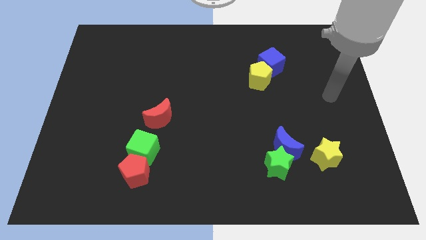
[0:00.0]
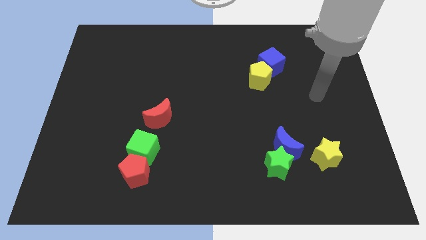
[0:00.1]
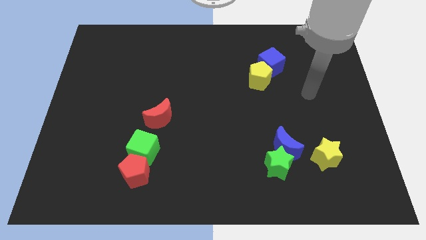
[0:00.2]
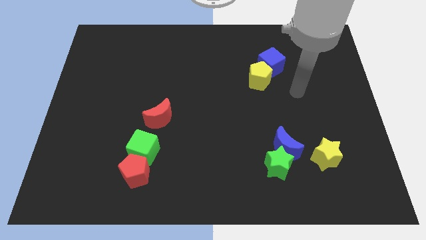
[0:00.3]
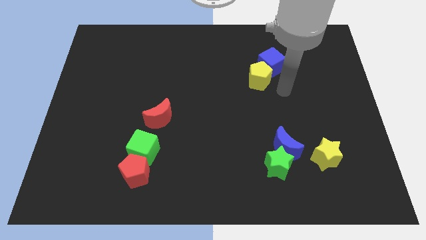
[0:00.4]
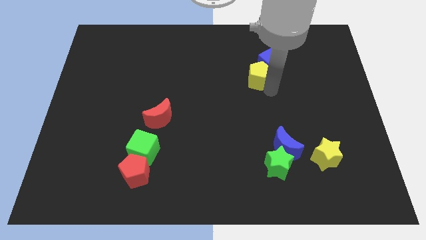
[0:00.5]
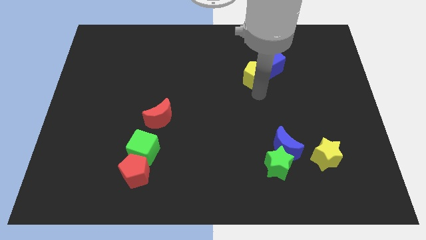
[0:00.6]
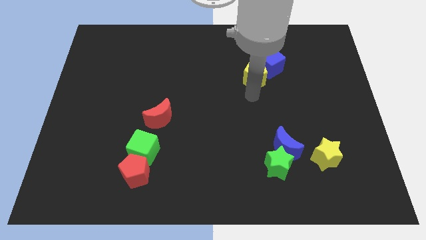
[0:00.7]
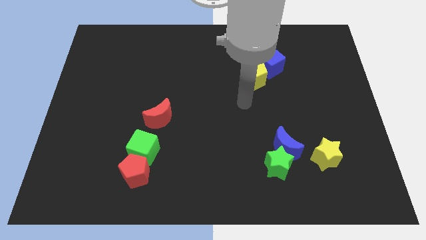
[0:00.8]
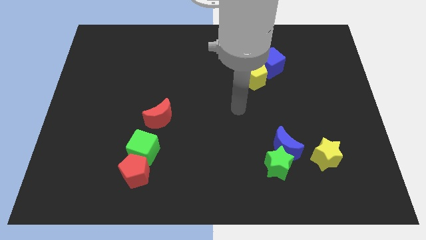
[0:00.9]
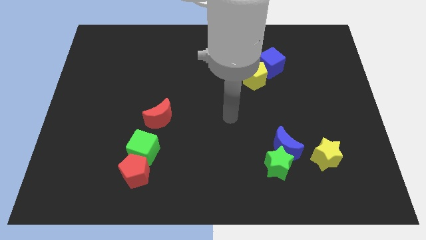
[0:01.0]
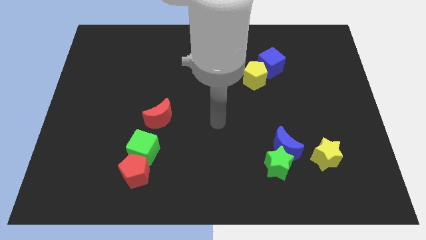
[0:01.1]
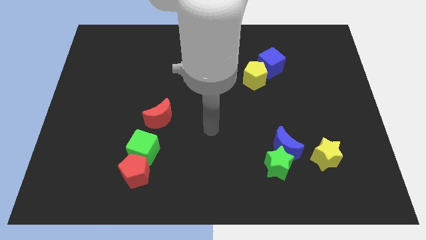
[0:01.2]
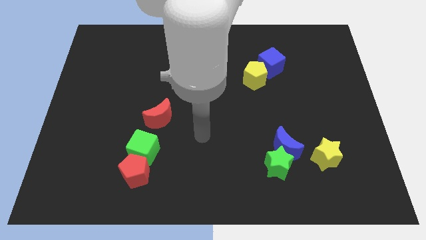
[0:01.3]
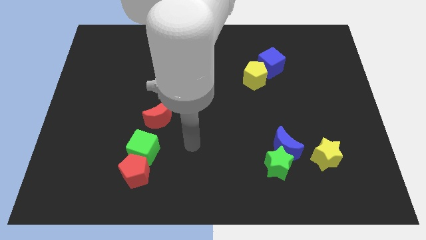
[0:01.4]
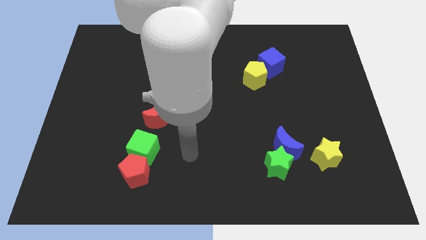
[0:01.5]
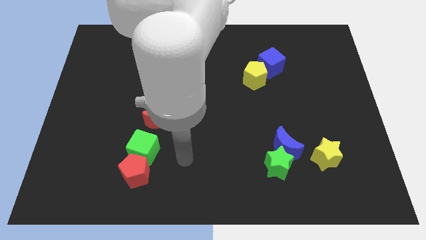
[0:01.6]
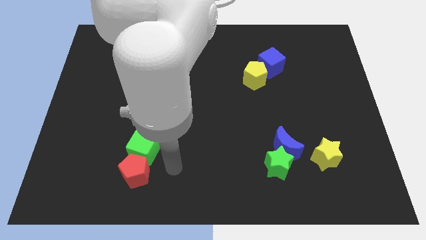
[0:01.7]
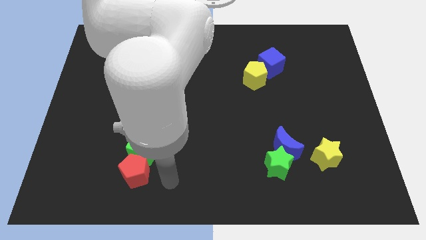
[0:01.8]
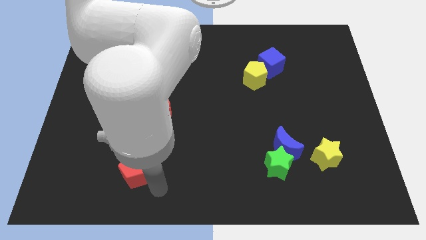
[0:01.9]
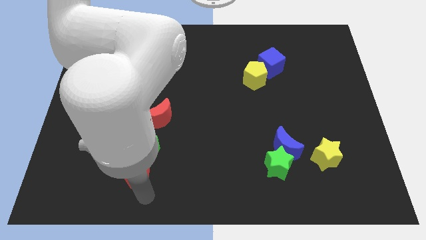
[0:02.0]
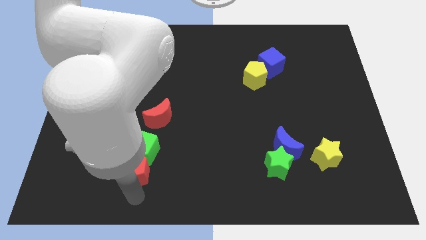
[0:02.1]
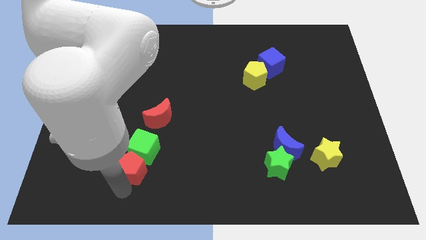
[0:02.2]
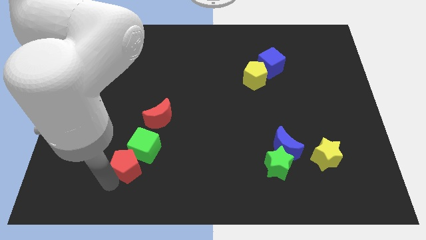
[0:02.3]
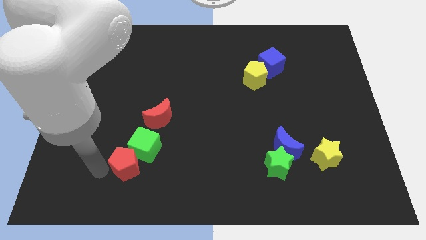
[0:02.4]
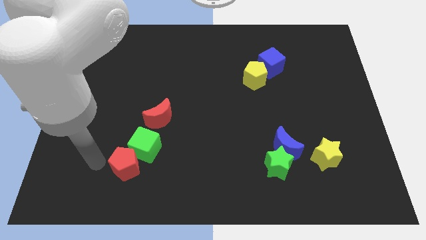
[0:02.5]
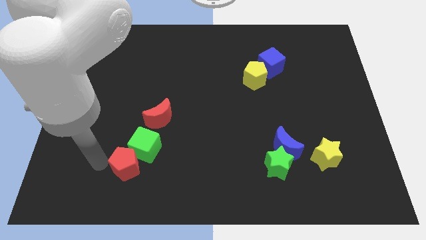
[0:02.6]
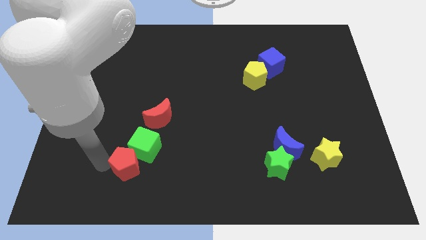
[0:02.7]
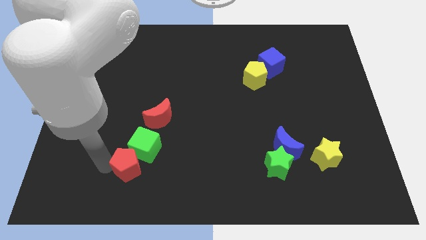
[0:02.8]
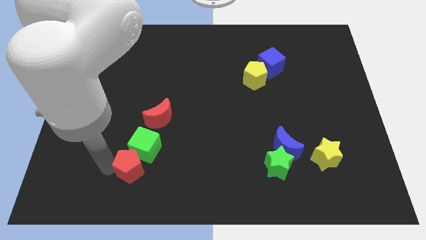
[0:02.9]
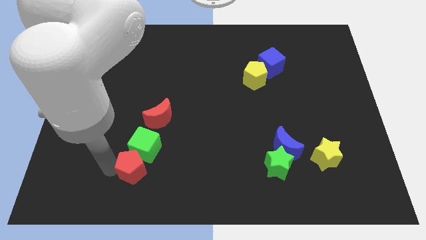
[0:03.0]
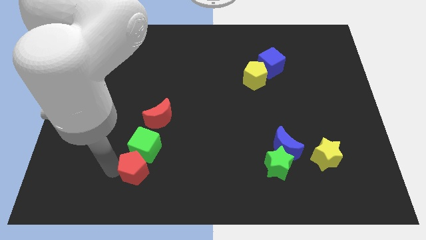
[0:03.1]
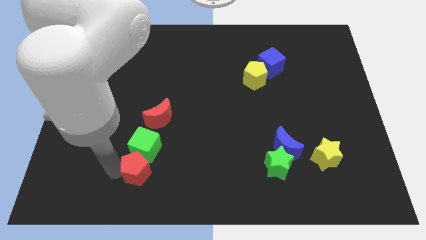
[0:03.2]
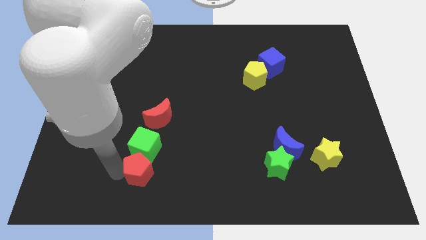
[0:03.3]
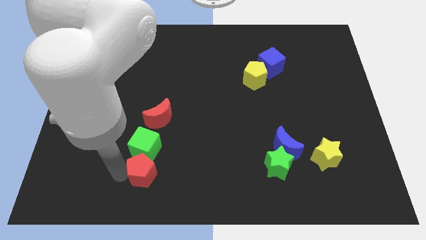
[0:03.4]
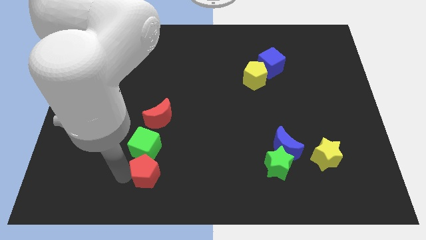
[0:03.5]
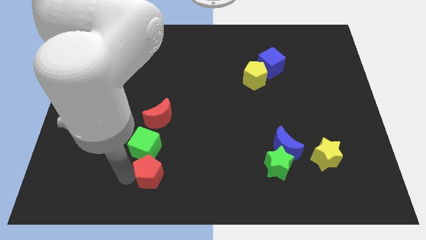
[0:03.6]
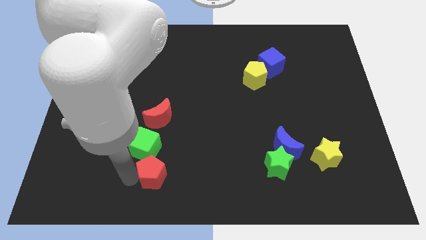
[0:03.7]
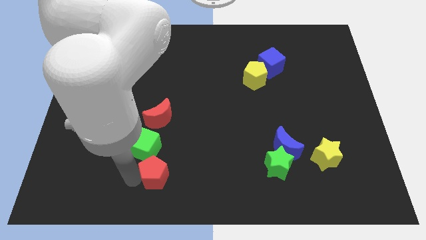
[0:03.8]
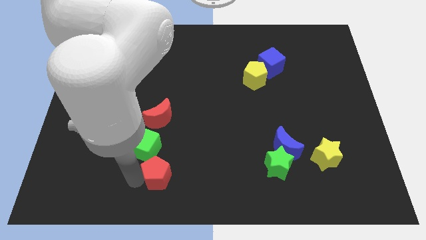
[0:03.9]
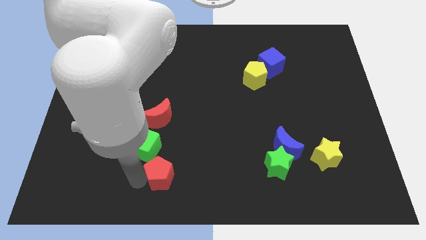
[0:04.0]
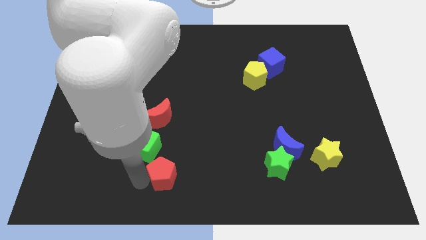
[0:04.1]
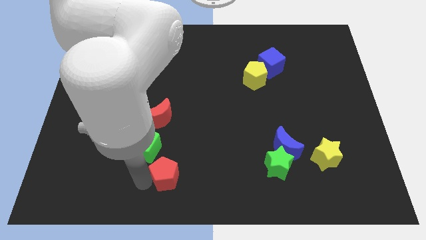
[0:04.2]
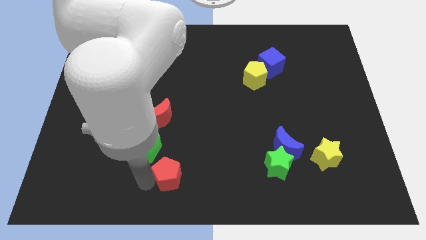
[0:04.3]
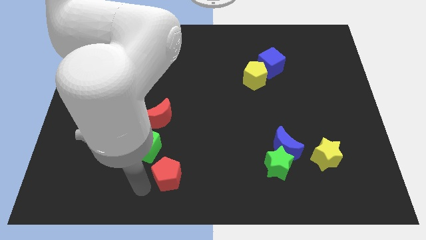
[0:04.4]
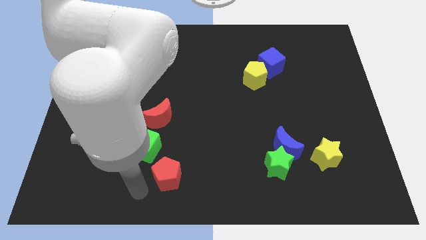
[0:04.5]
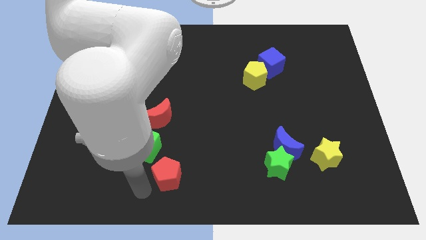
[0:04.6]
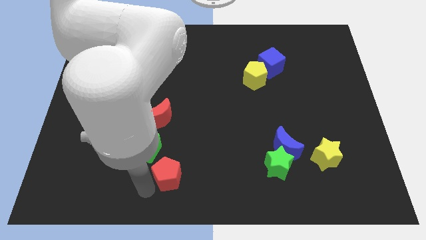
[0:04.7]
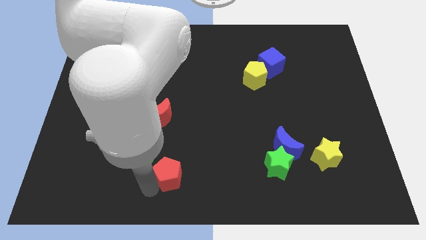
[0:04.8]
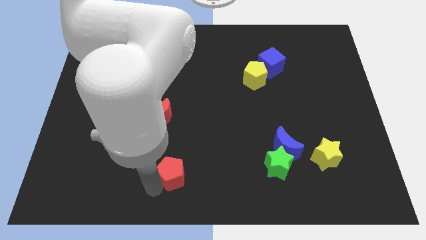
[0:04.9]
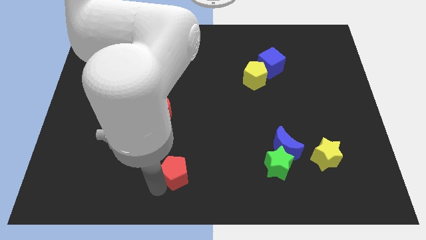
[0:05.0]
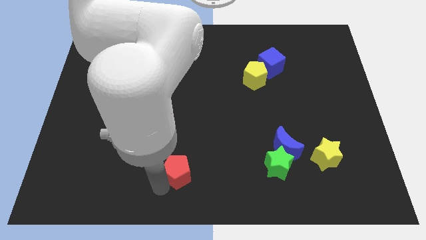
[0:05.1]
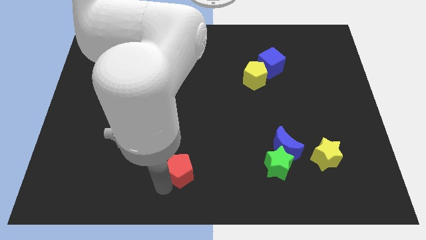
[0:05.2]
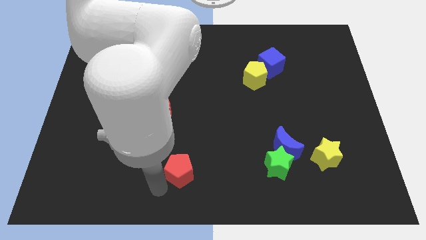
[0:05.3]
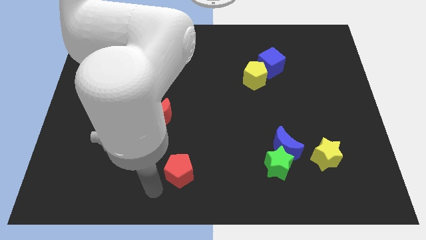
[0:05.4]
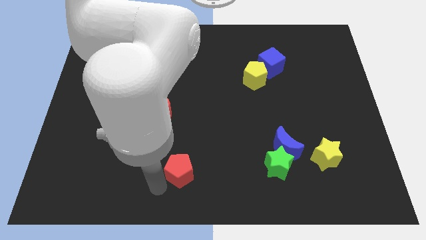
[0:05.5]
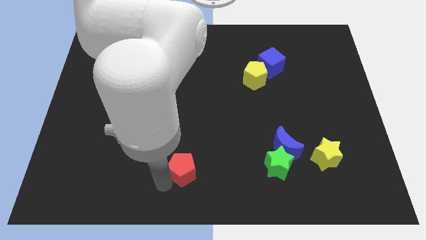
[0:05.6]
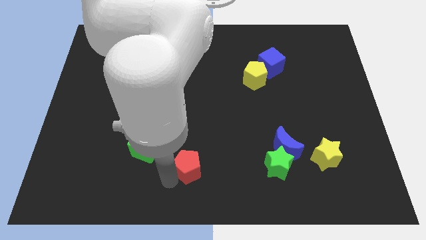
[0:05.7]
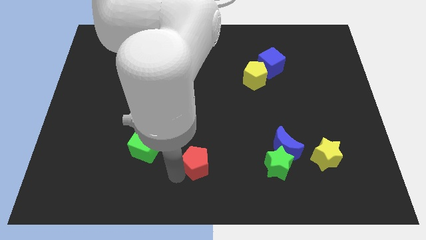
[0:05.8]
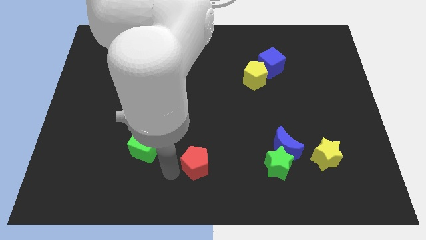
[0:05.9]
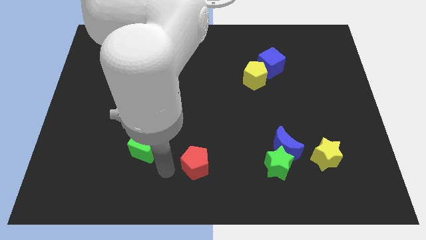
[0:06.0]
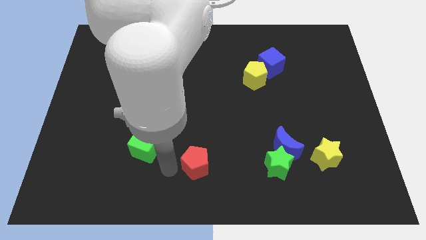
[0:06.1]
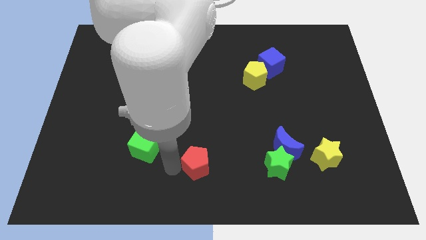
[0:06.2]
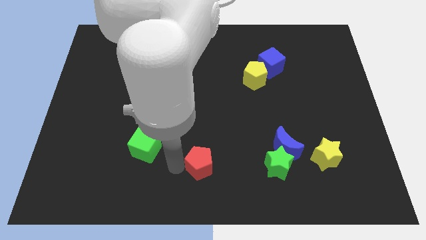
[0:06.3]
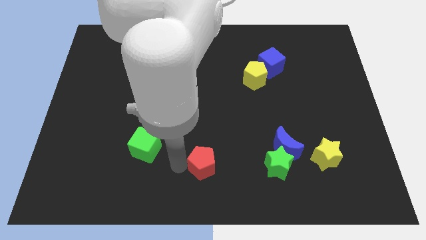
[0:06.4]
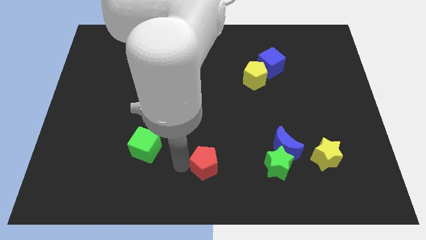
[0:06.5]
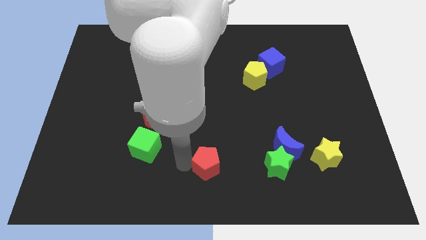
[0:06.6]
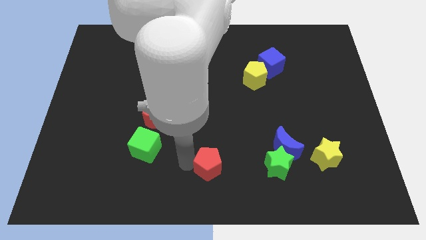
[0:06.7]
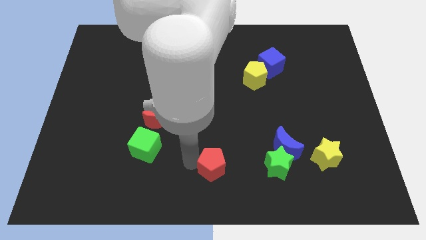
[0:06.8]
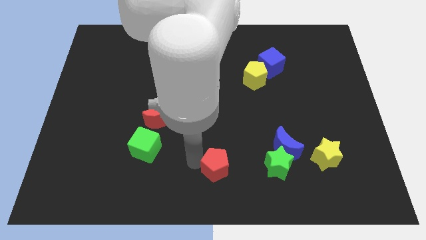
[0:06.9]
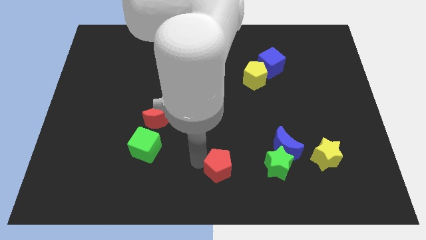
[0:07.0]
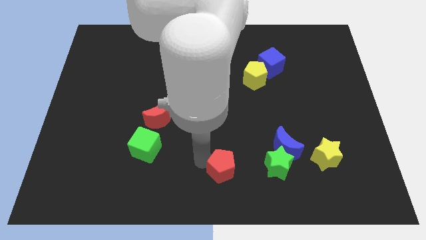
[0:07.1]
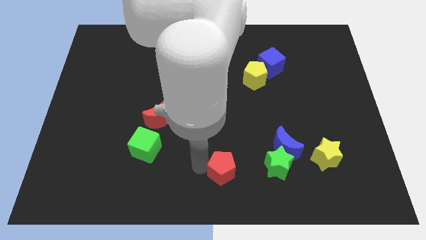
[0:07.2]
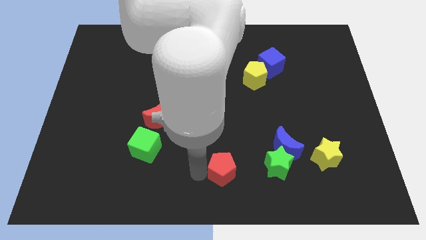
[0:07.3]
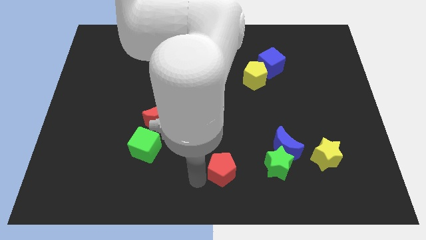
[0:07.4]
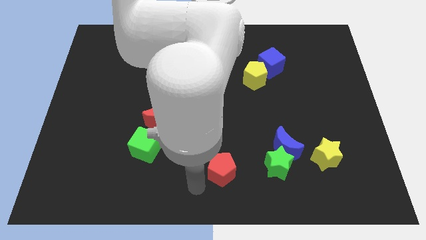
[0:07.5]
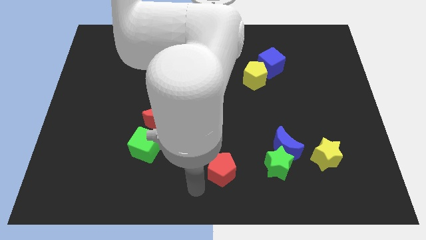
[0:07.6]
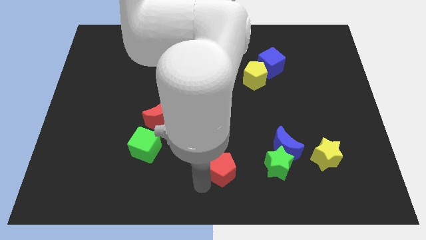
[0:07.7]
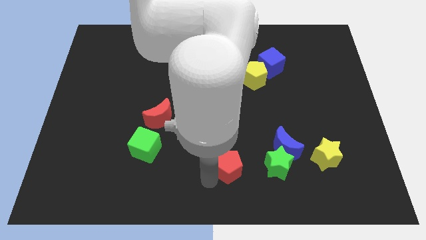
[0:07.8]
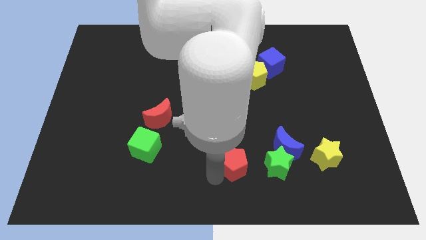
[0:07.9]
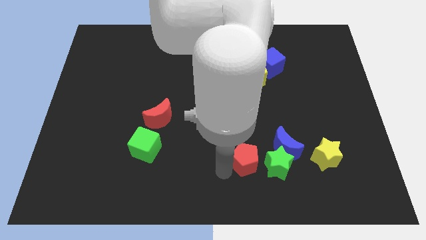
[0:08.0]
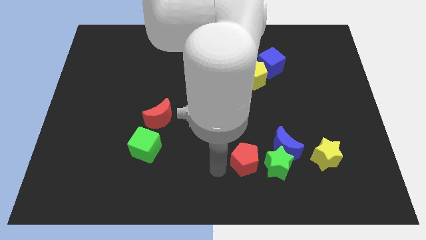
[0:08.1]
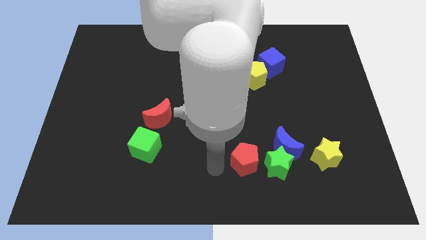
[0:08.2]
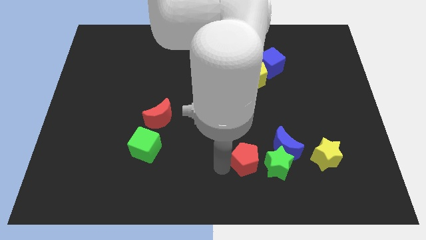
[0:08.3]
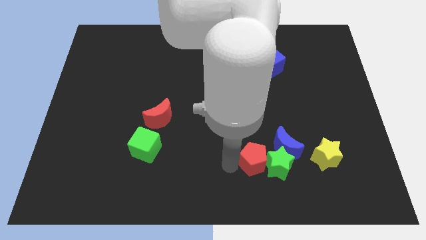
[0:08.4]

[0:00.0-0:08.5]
slide the red pentagon to the left side of the yellow star
